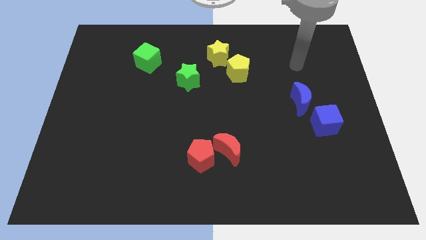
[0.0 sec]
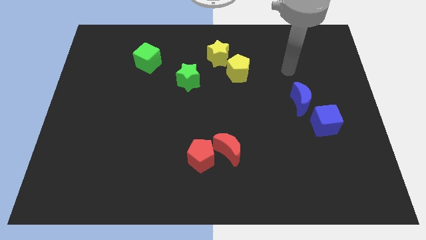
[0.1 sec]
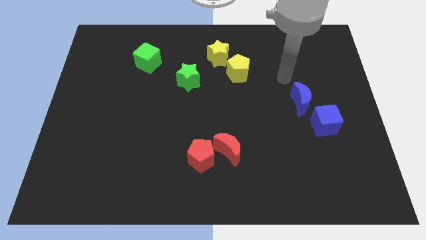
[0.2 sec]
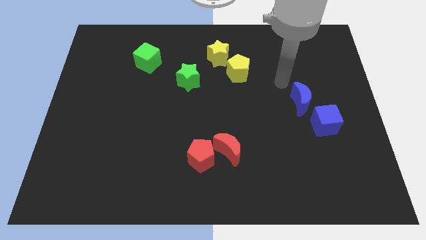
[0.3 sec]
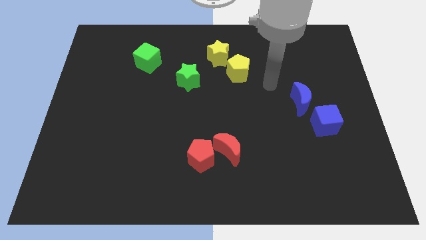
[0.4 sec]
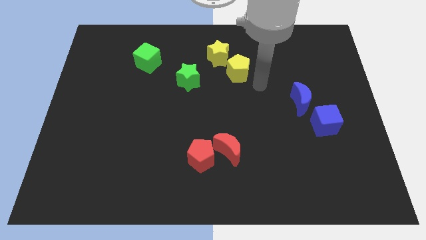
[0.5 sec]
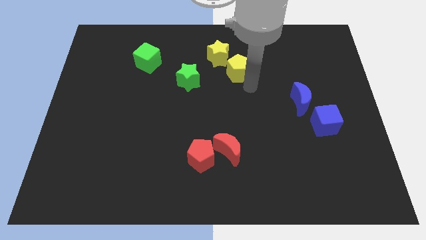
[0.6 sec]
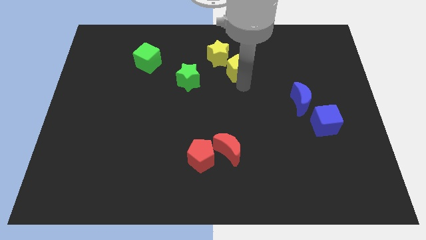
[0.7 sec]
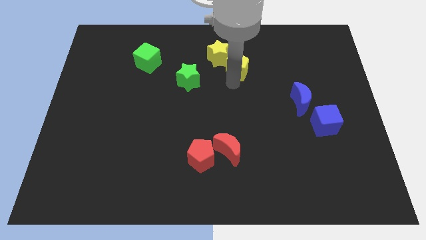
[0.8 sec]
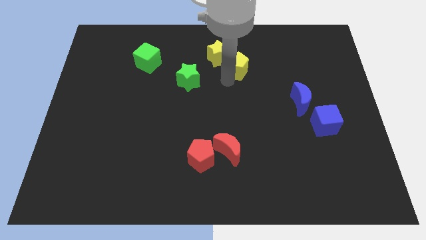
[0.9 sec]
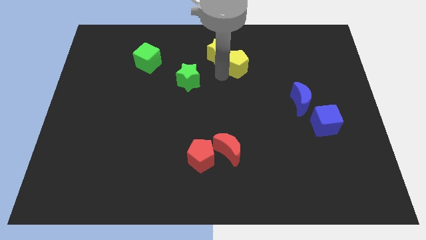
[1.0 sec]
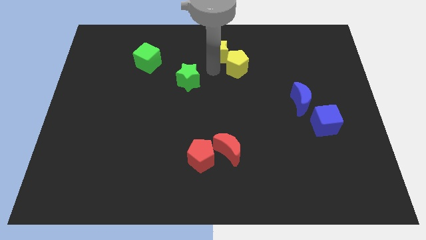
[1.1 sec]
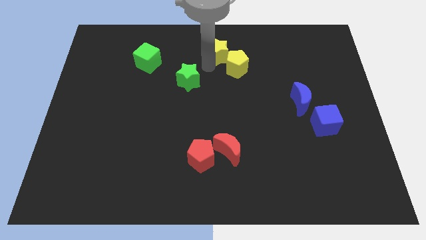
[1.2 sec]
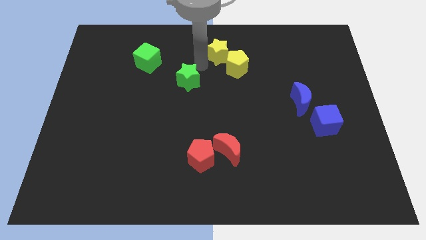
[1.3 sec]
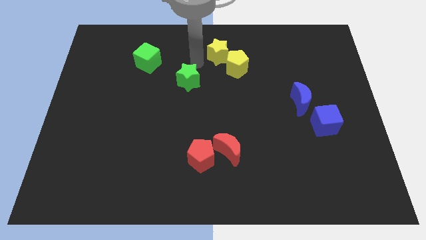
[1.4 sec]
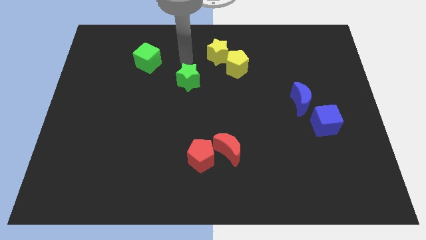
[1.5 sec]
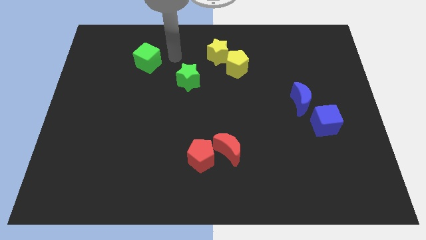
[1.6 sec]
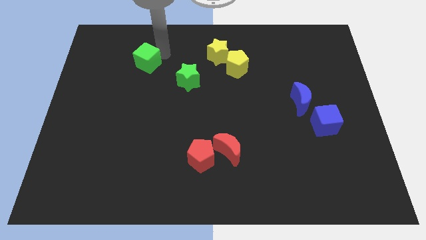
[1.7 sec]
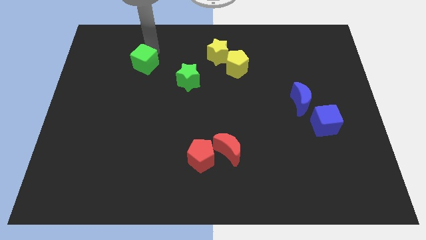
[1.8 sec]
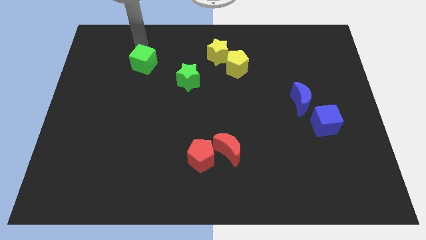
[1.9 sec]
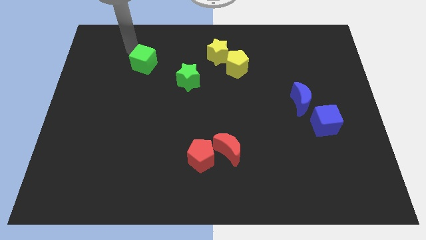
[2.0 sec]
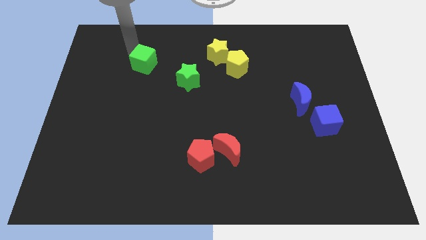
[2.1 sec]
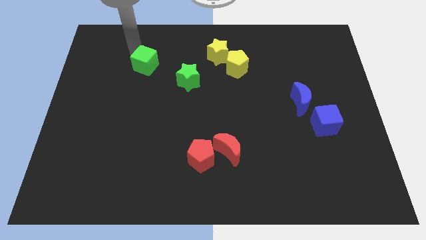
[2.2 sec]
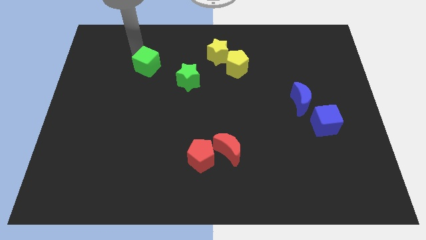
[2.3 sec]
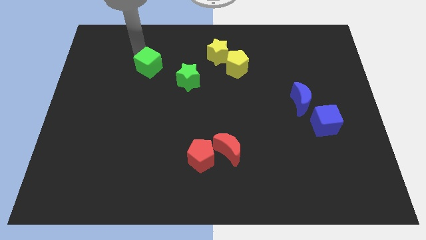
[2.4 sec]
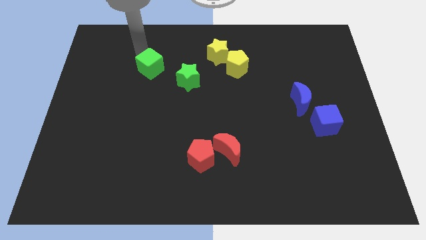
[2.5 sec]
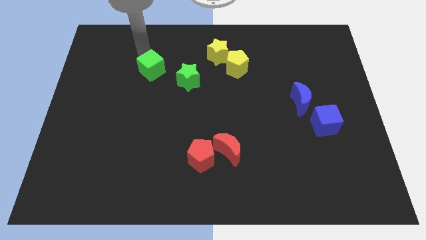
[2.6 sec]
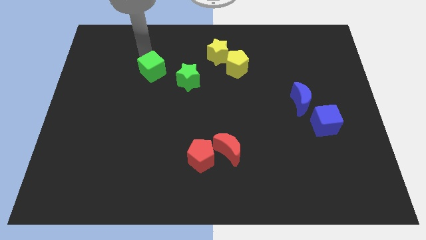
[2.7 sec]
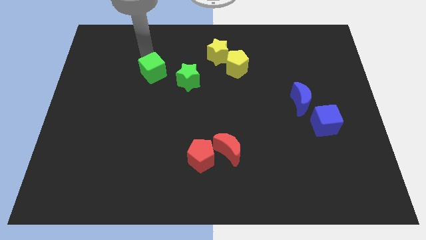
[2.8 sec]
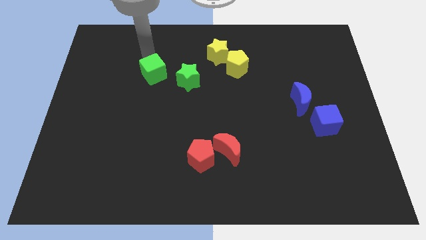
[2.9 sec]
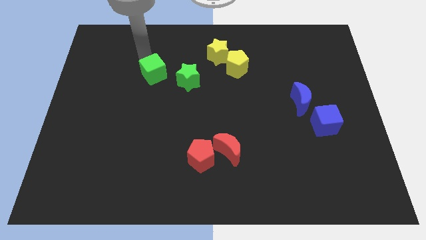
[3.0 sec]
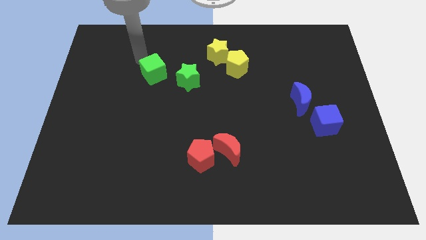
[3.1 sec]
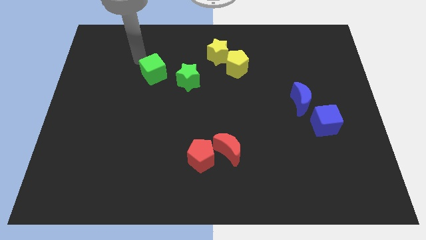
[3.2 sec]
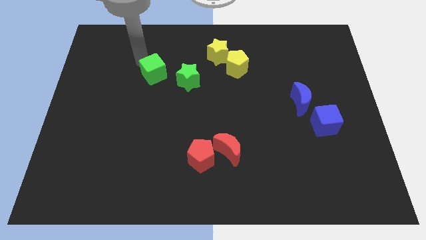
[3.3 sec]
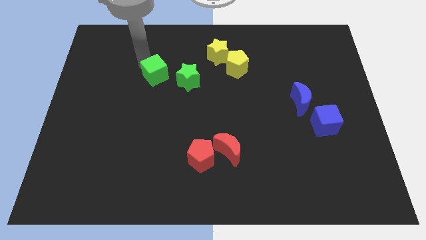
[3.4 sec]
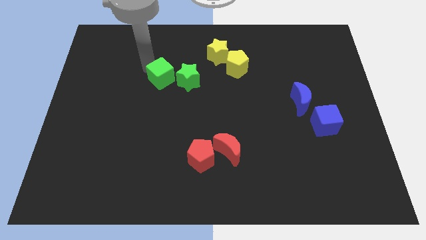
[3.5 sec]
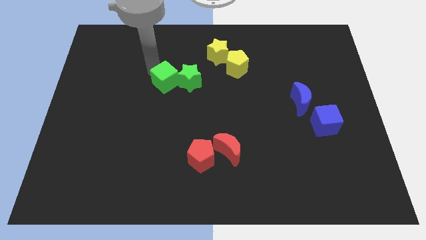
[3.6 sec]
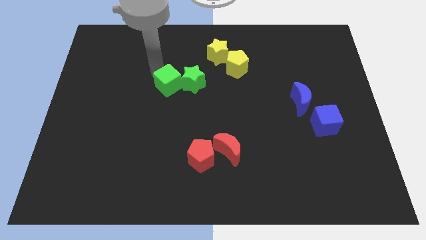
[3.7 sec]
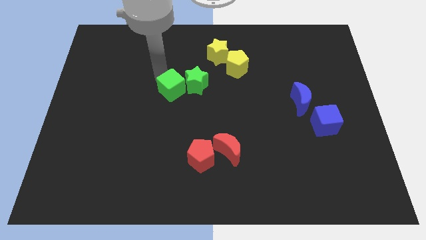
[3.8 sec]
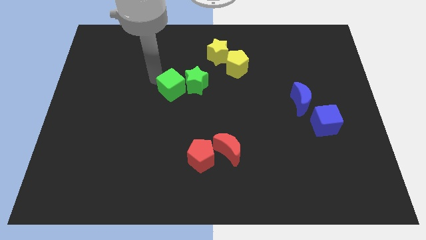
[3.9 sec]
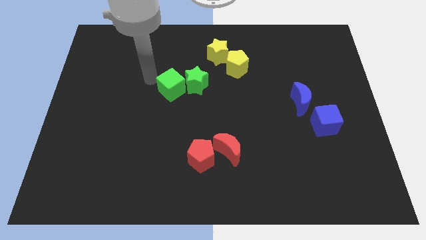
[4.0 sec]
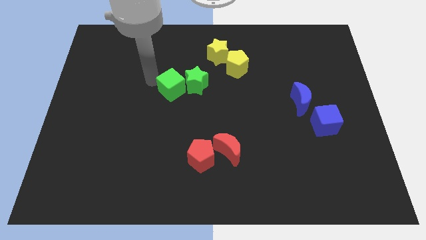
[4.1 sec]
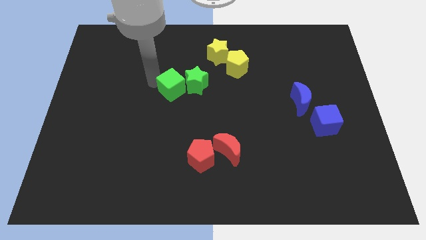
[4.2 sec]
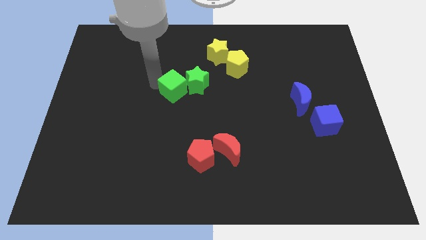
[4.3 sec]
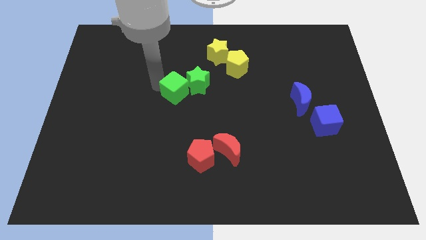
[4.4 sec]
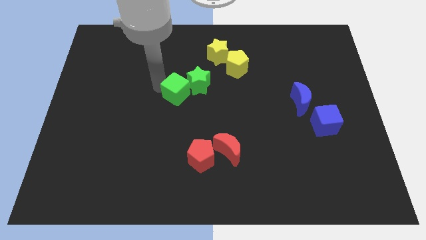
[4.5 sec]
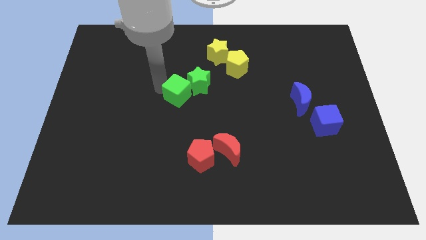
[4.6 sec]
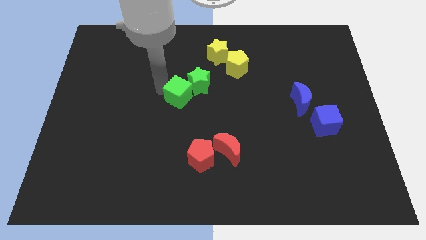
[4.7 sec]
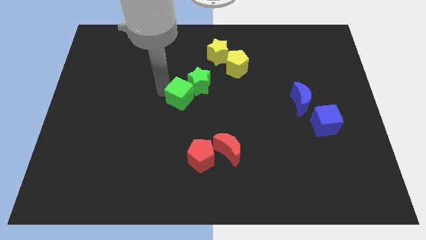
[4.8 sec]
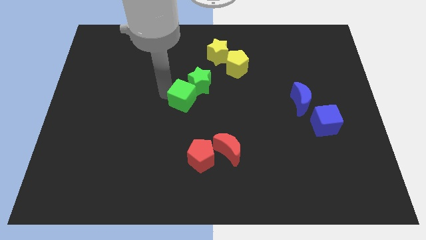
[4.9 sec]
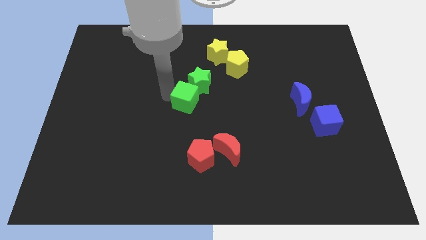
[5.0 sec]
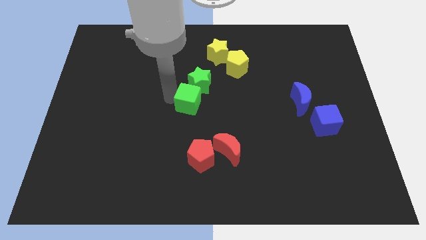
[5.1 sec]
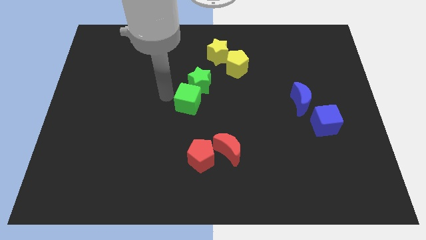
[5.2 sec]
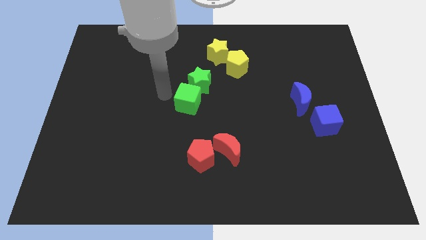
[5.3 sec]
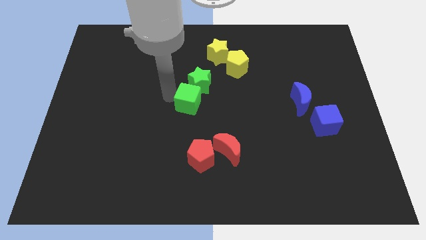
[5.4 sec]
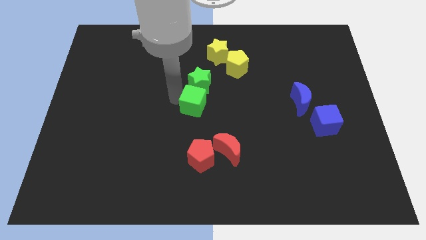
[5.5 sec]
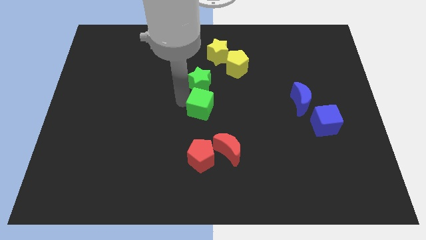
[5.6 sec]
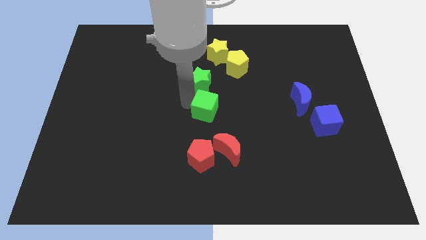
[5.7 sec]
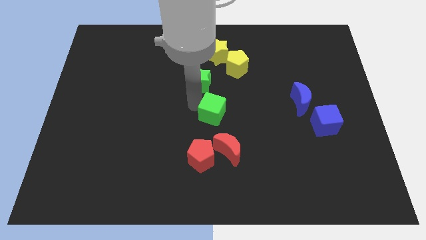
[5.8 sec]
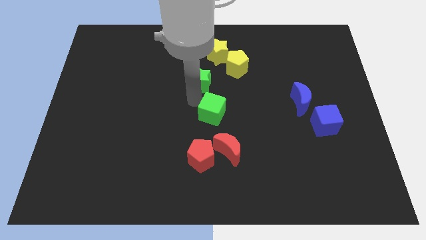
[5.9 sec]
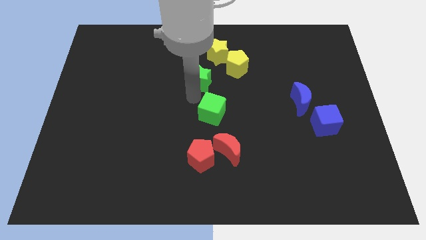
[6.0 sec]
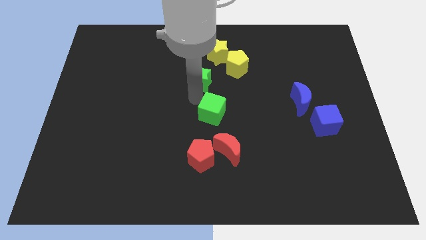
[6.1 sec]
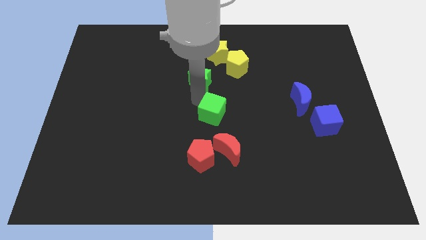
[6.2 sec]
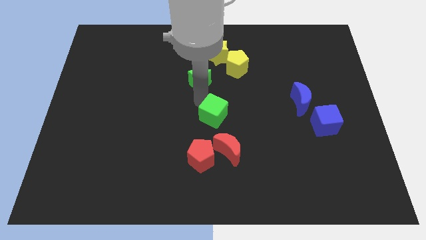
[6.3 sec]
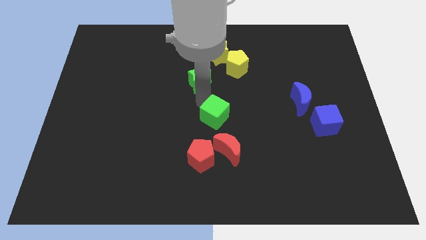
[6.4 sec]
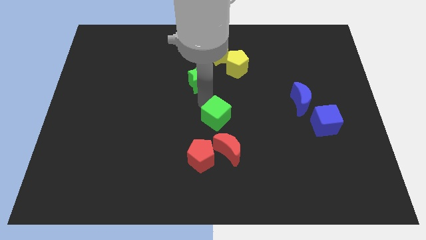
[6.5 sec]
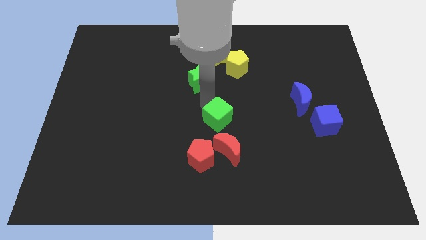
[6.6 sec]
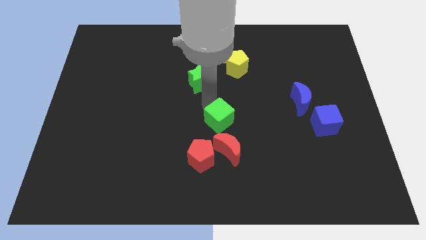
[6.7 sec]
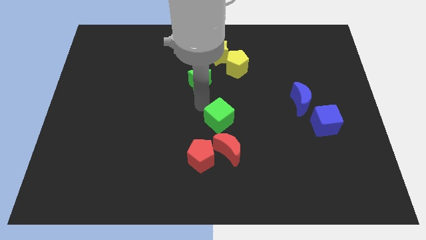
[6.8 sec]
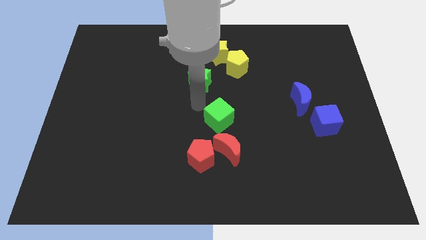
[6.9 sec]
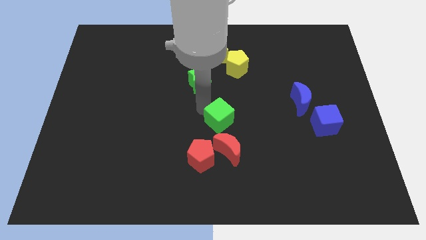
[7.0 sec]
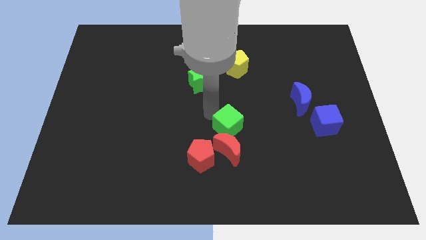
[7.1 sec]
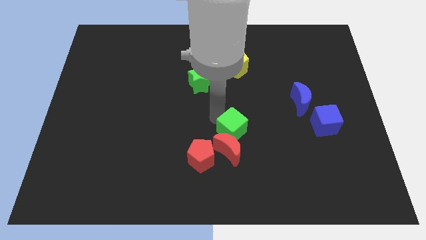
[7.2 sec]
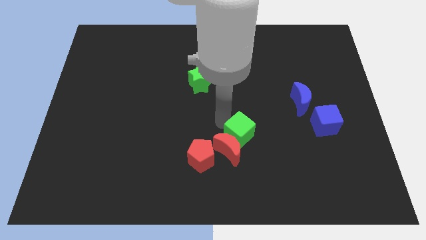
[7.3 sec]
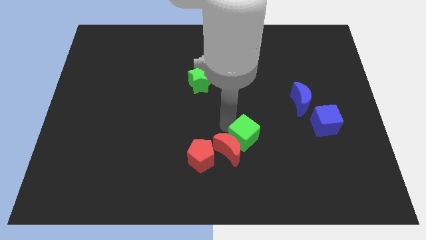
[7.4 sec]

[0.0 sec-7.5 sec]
slide the green cube to the right of the red moon
